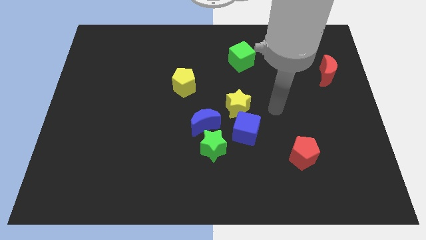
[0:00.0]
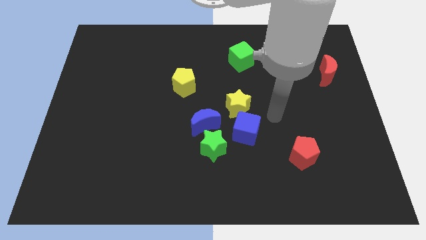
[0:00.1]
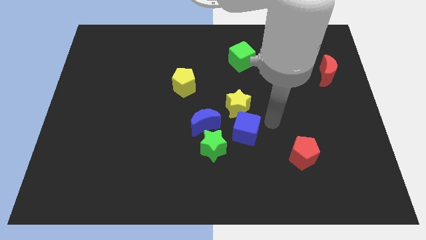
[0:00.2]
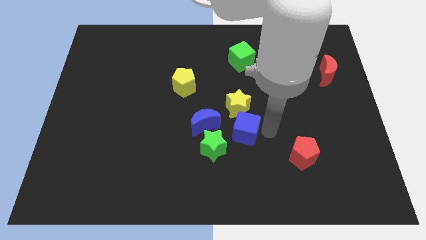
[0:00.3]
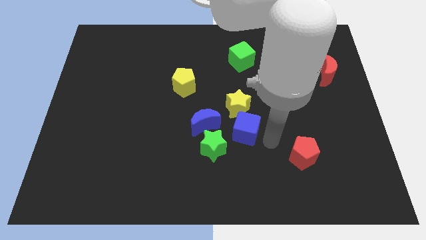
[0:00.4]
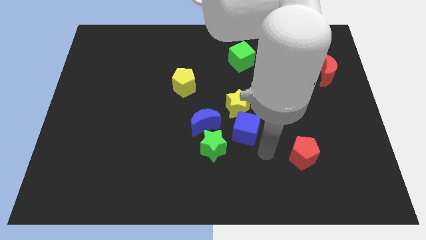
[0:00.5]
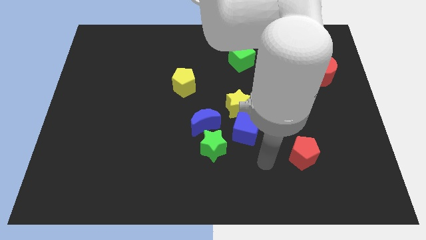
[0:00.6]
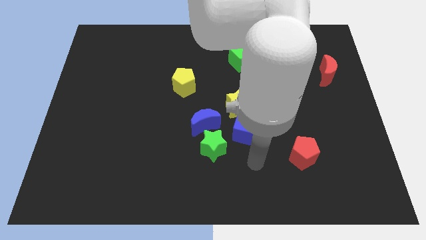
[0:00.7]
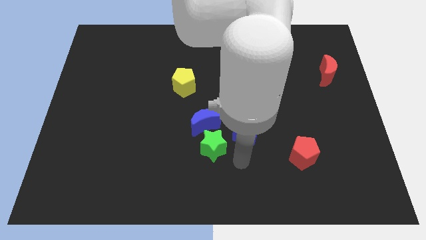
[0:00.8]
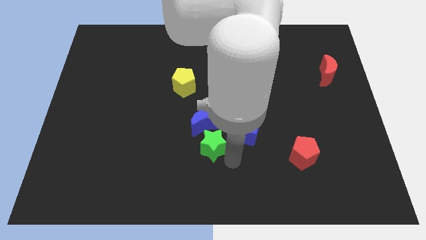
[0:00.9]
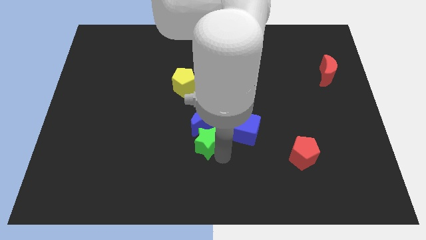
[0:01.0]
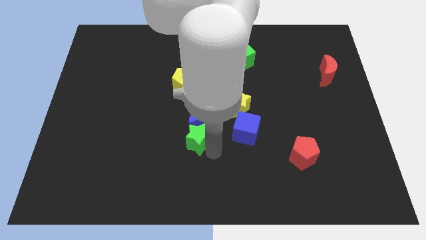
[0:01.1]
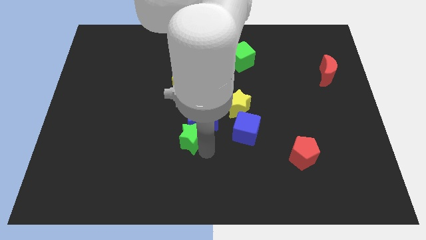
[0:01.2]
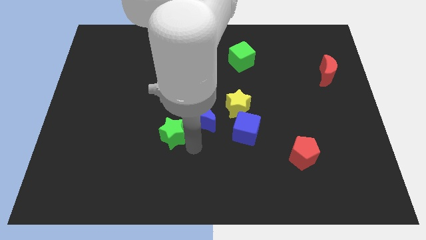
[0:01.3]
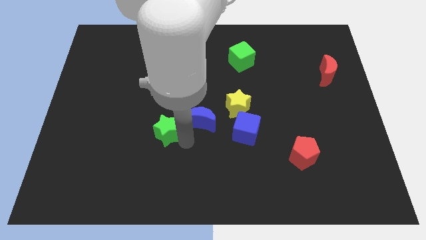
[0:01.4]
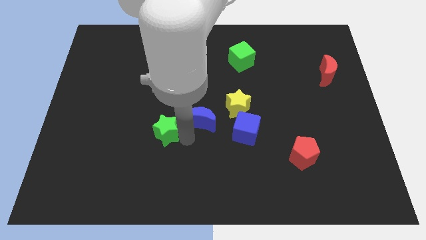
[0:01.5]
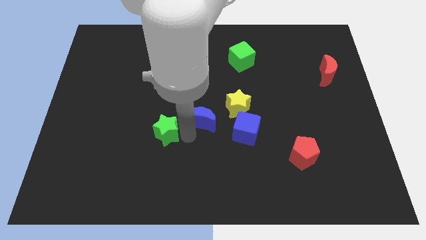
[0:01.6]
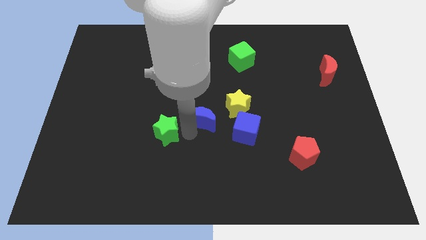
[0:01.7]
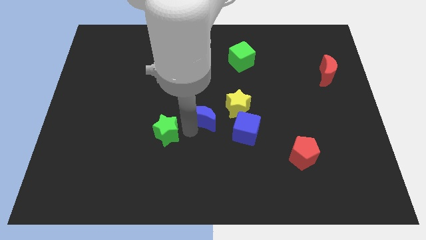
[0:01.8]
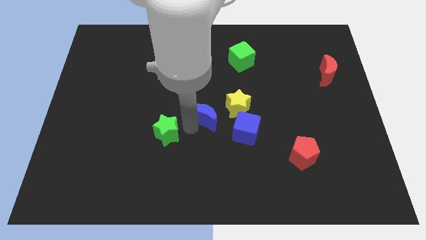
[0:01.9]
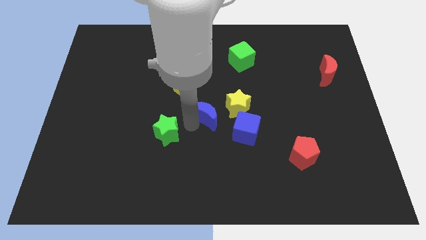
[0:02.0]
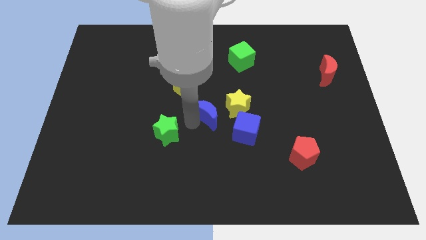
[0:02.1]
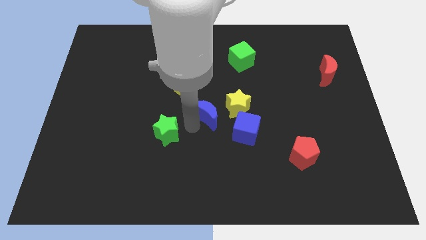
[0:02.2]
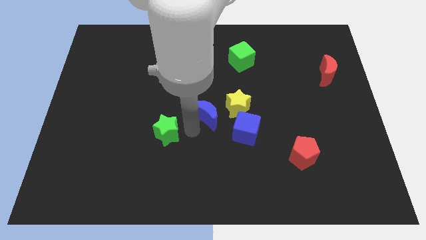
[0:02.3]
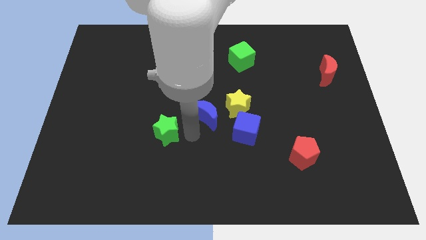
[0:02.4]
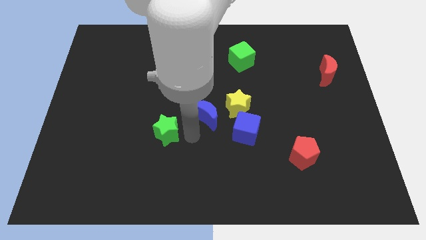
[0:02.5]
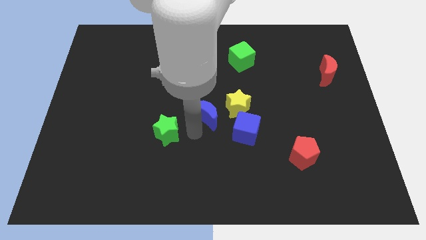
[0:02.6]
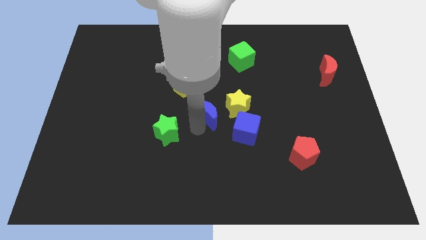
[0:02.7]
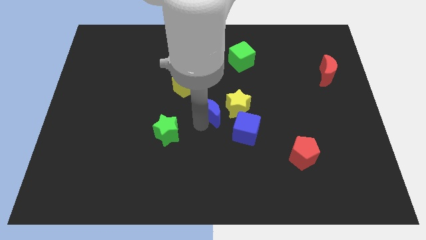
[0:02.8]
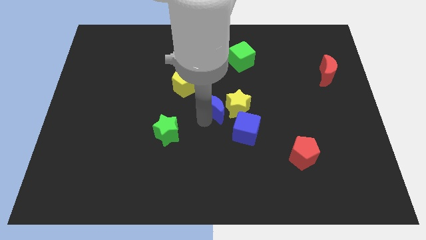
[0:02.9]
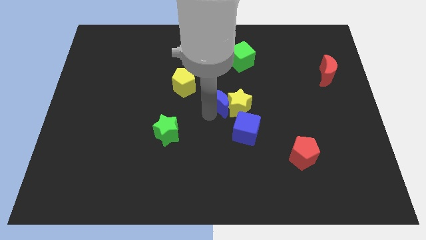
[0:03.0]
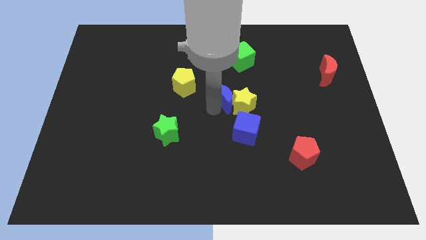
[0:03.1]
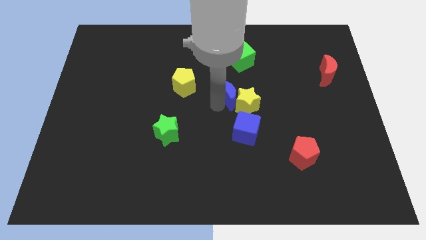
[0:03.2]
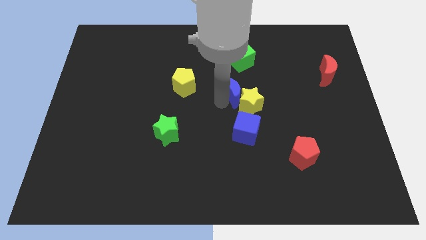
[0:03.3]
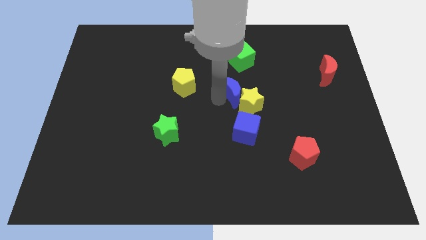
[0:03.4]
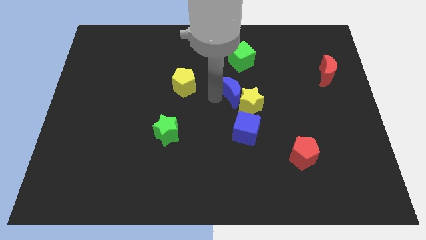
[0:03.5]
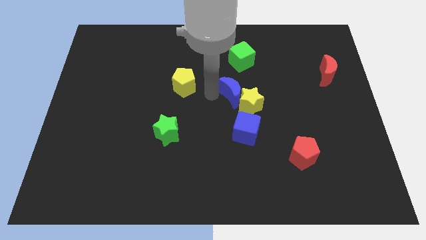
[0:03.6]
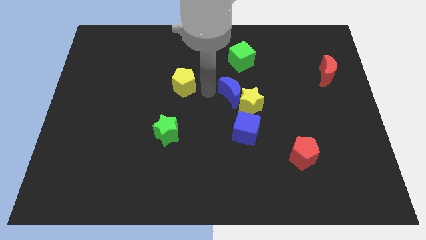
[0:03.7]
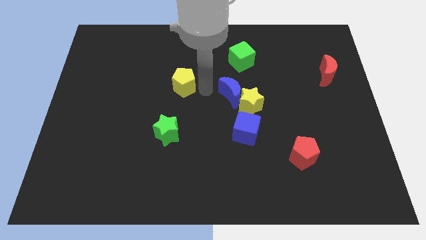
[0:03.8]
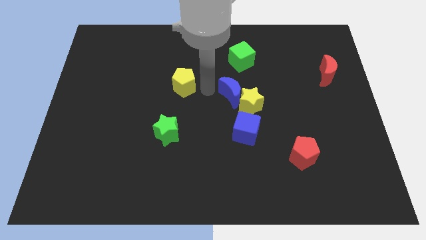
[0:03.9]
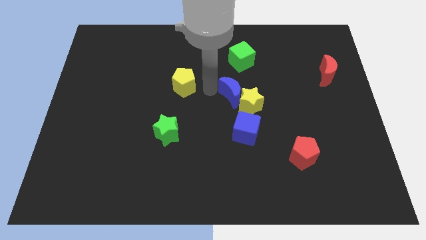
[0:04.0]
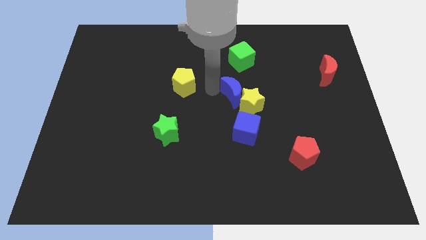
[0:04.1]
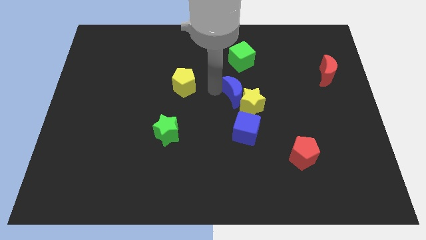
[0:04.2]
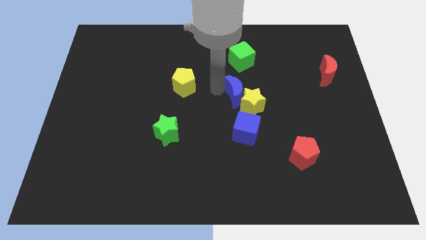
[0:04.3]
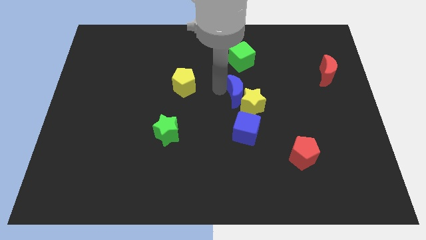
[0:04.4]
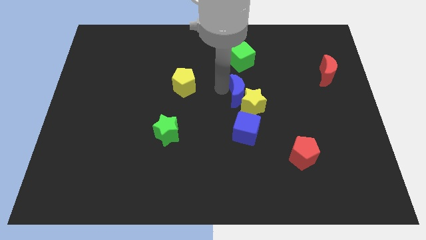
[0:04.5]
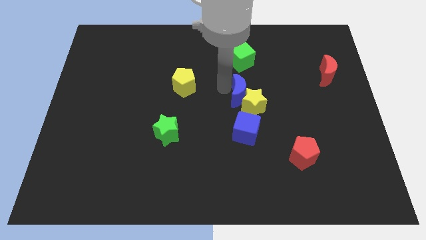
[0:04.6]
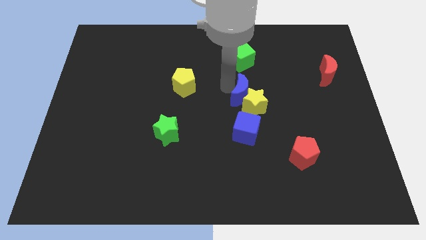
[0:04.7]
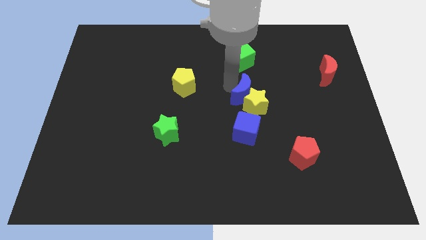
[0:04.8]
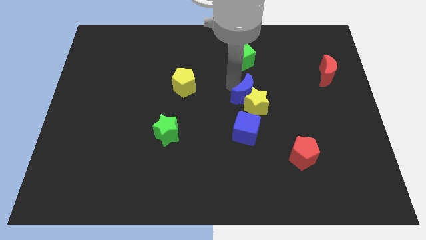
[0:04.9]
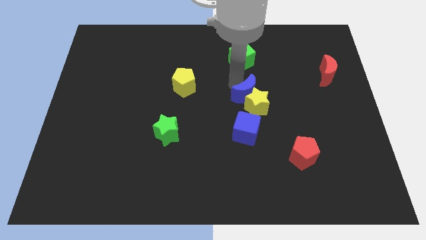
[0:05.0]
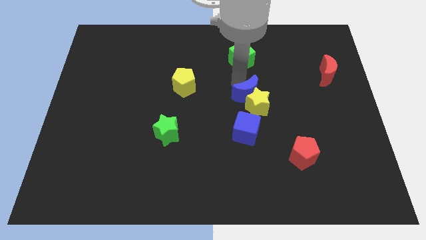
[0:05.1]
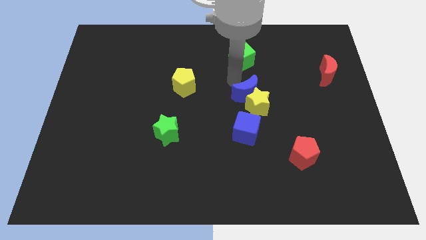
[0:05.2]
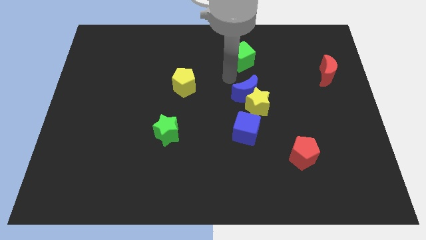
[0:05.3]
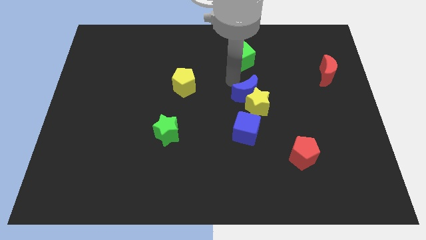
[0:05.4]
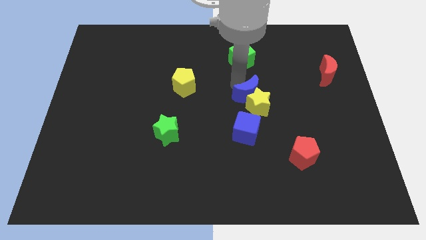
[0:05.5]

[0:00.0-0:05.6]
move the blue moon a little to the right

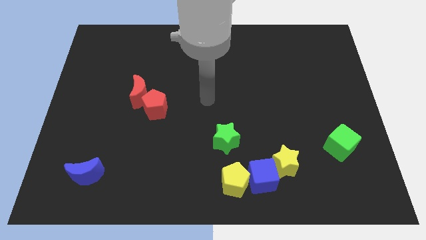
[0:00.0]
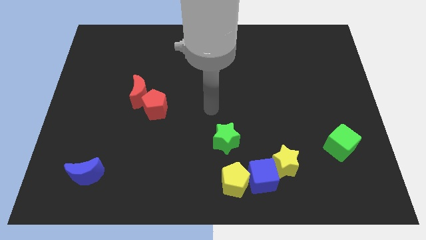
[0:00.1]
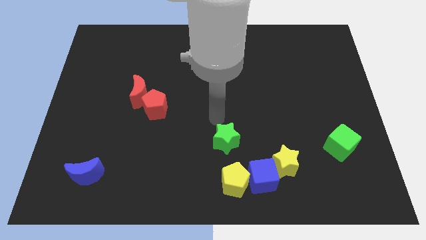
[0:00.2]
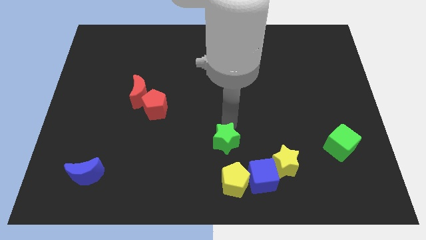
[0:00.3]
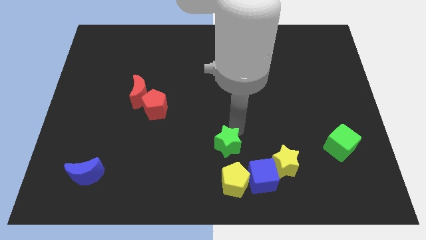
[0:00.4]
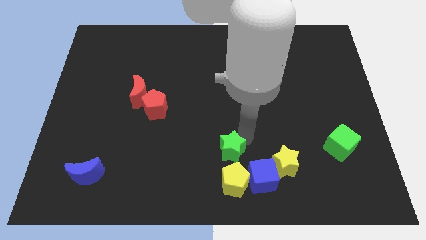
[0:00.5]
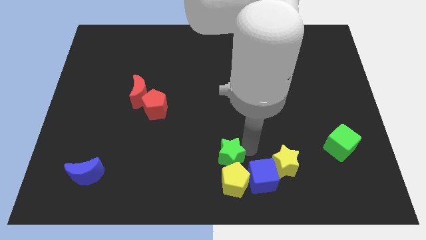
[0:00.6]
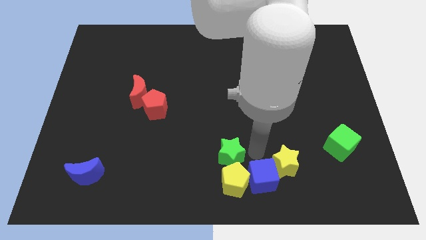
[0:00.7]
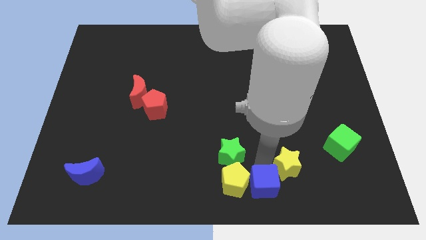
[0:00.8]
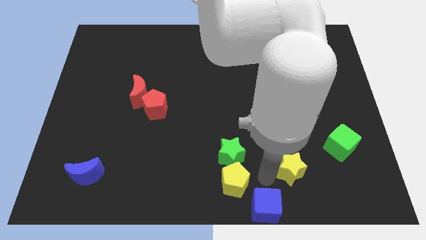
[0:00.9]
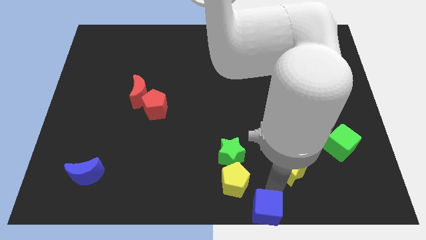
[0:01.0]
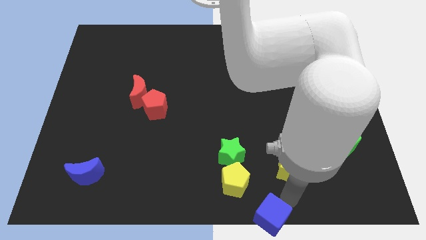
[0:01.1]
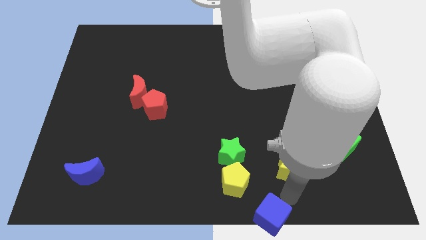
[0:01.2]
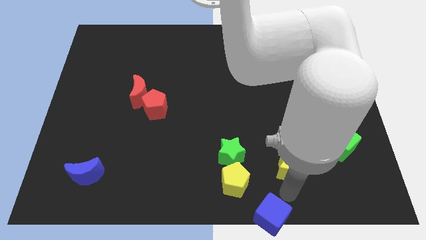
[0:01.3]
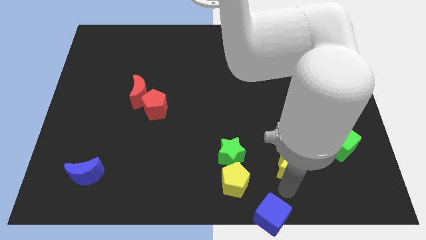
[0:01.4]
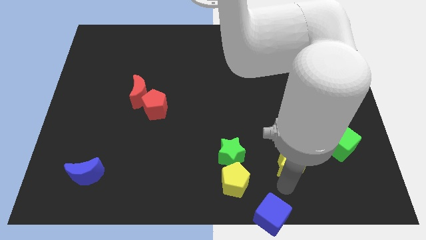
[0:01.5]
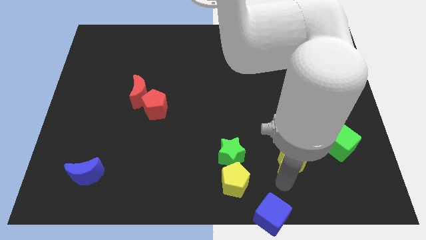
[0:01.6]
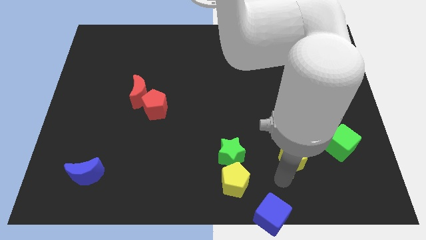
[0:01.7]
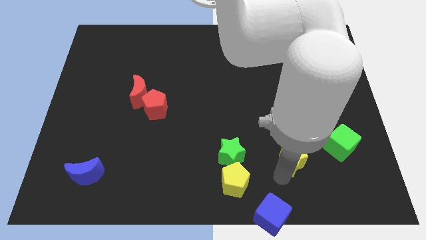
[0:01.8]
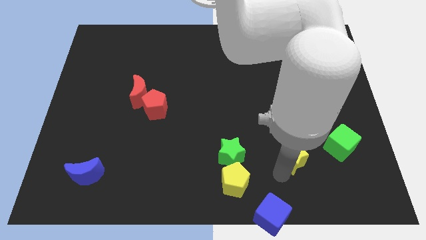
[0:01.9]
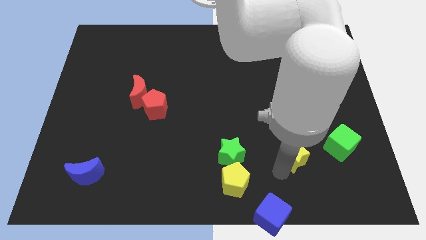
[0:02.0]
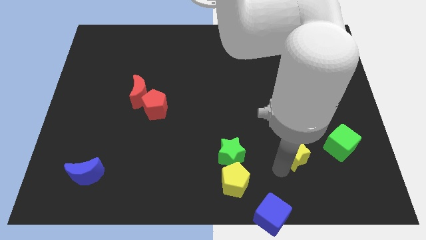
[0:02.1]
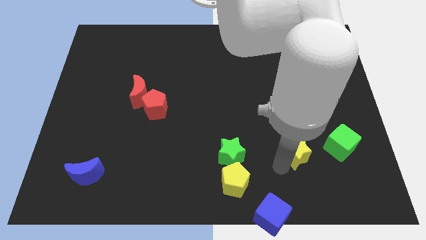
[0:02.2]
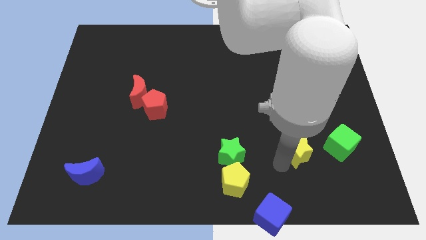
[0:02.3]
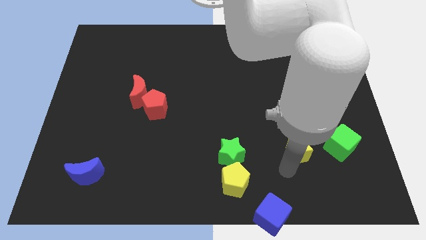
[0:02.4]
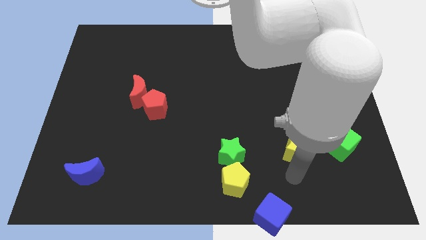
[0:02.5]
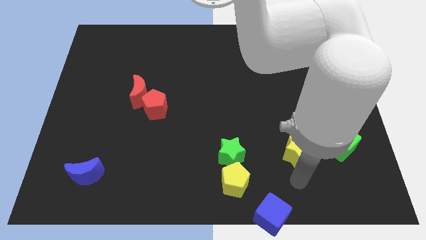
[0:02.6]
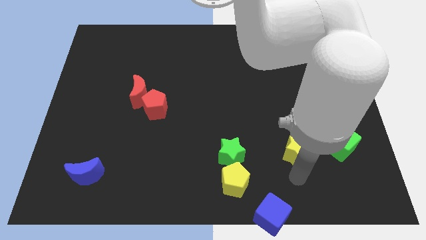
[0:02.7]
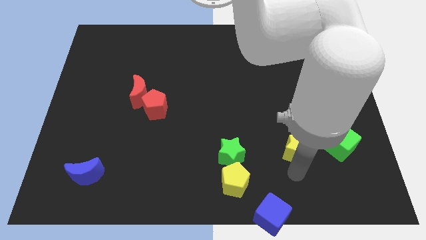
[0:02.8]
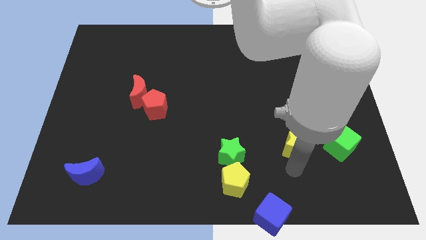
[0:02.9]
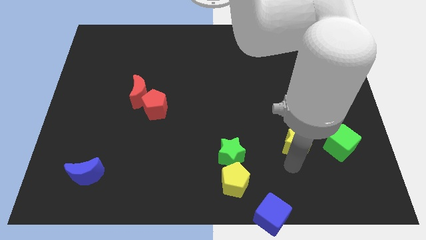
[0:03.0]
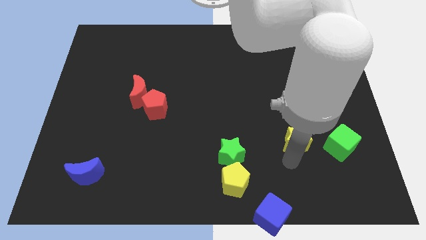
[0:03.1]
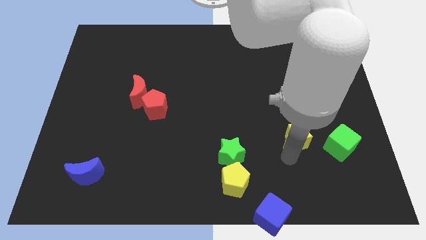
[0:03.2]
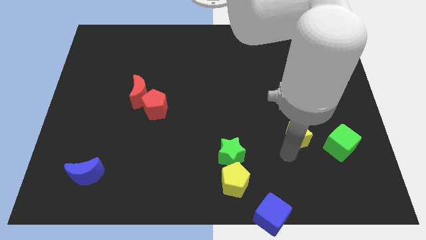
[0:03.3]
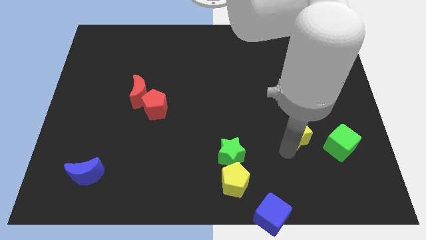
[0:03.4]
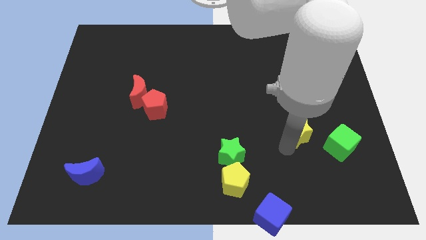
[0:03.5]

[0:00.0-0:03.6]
slightly slide the yellow star up
